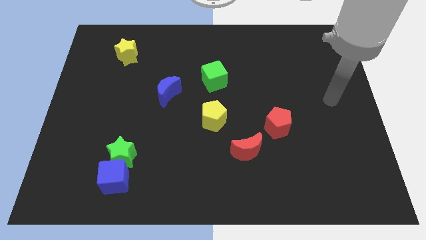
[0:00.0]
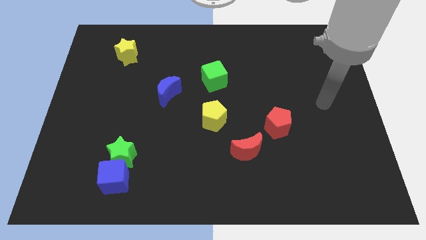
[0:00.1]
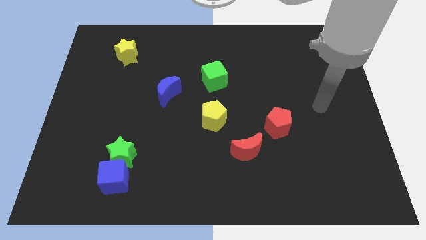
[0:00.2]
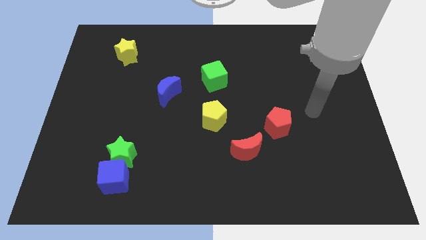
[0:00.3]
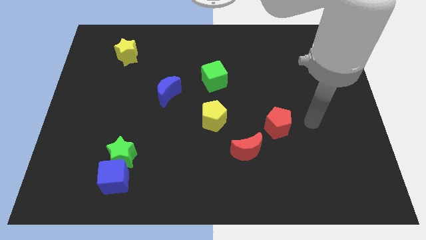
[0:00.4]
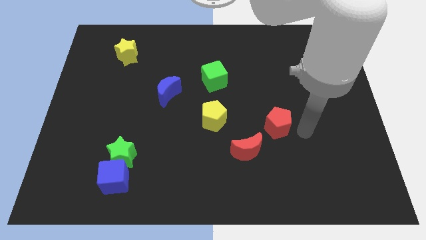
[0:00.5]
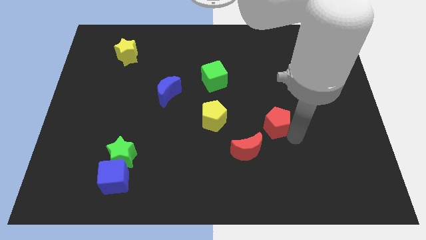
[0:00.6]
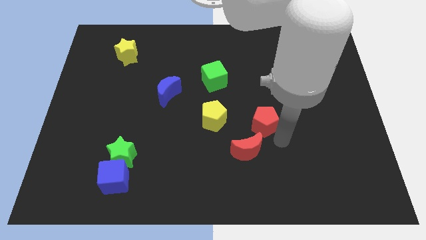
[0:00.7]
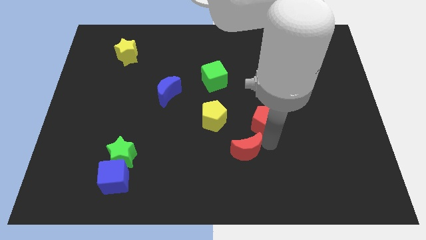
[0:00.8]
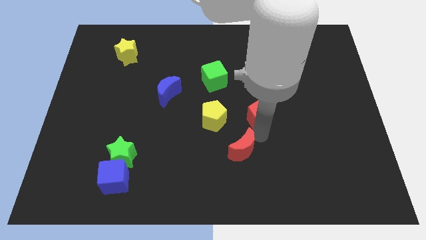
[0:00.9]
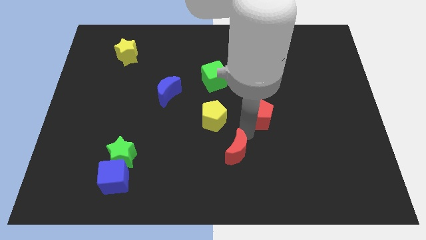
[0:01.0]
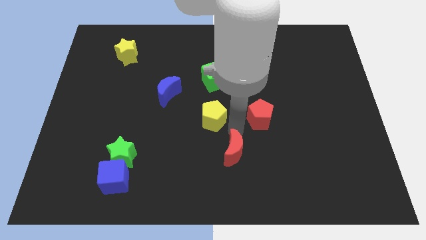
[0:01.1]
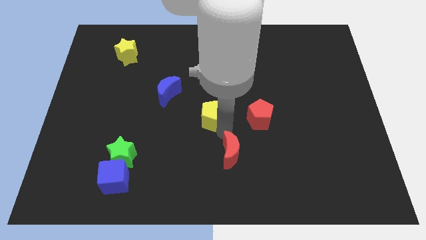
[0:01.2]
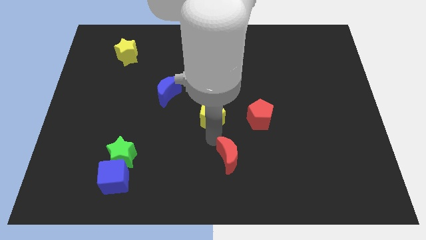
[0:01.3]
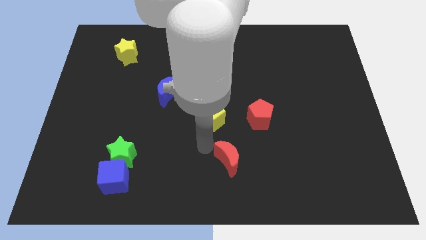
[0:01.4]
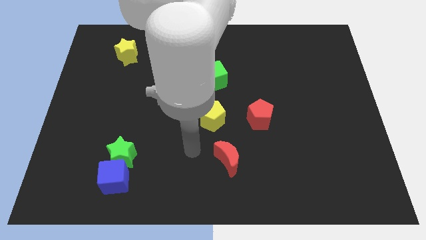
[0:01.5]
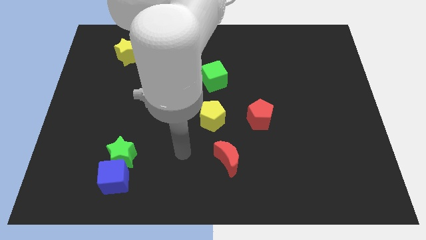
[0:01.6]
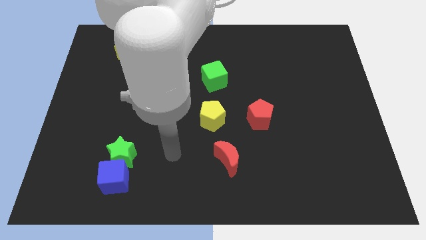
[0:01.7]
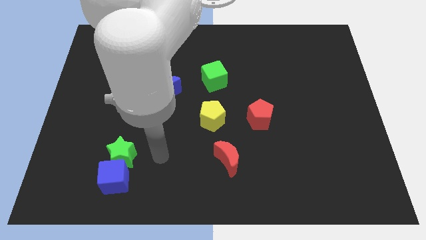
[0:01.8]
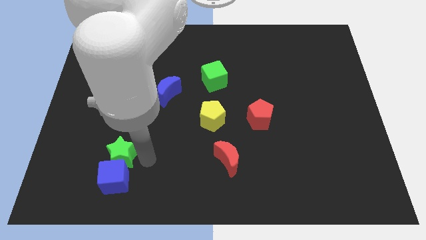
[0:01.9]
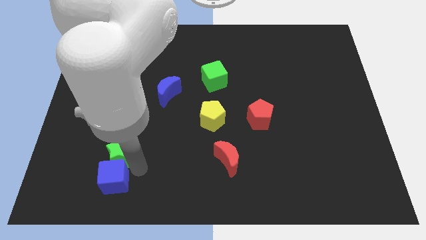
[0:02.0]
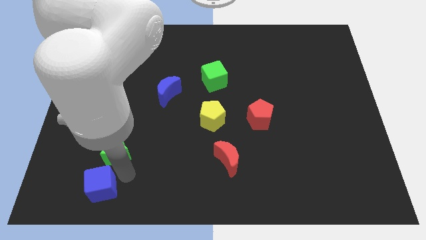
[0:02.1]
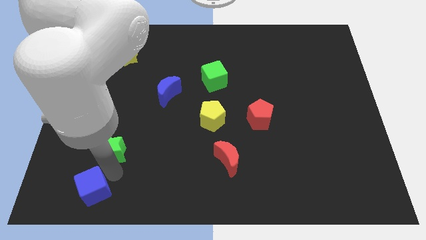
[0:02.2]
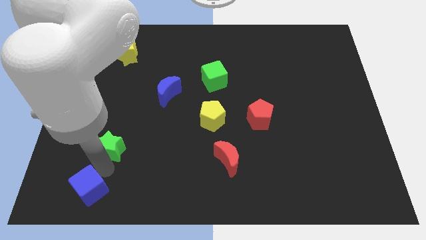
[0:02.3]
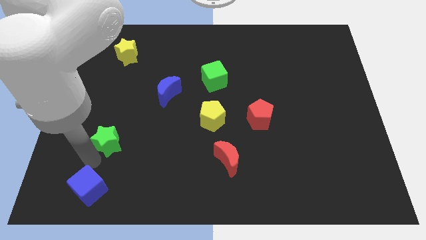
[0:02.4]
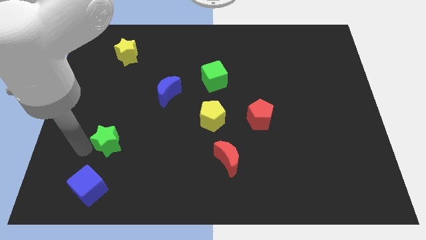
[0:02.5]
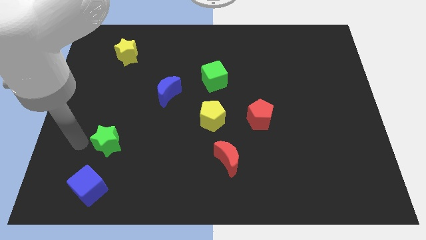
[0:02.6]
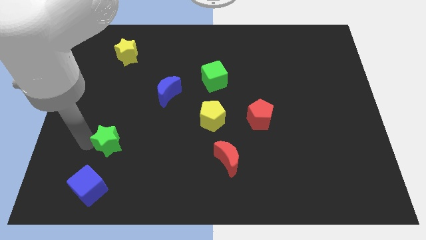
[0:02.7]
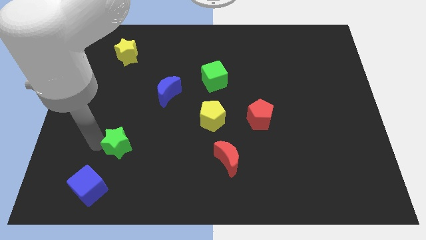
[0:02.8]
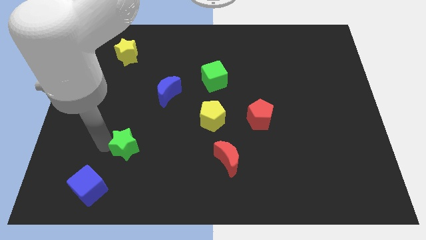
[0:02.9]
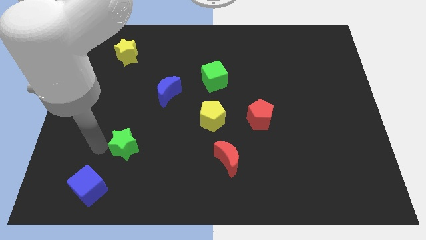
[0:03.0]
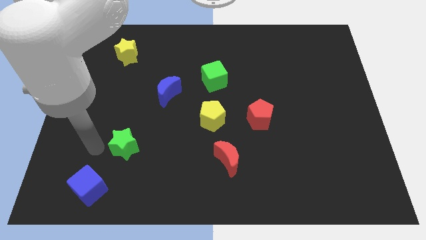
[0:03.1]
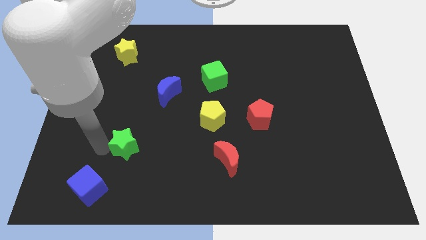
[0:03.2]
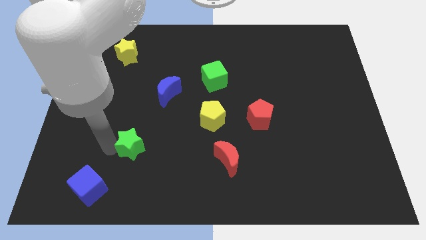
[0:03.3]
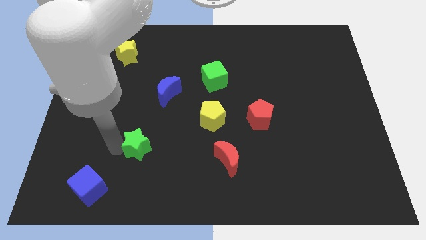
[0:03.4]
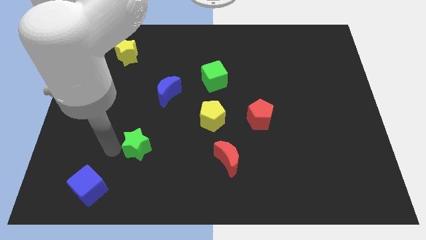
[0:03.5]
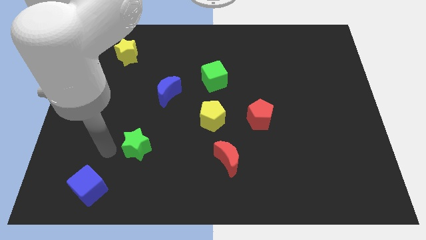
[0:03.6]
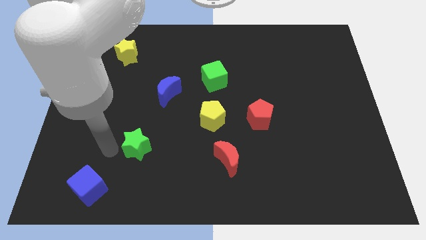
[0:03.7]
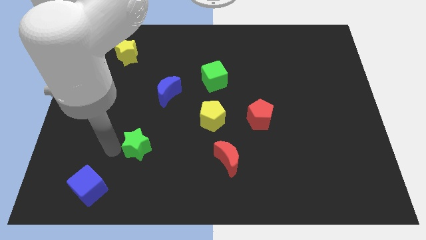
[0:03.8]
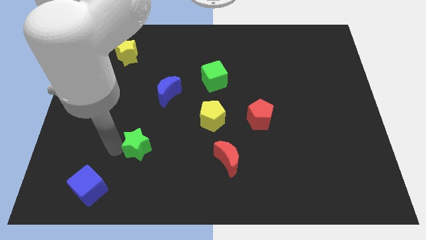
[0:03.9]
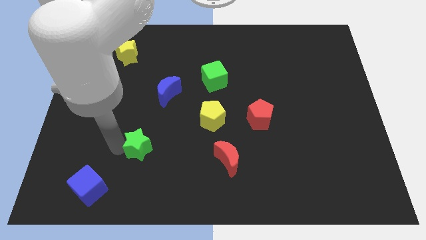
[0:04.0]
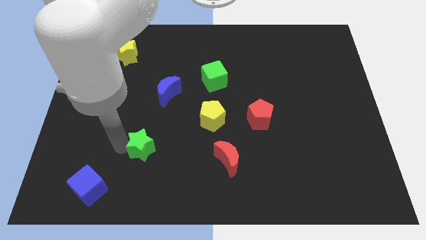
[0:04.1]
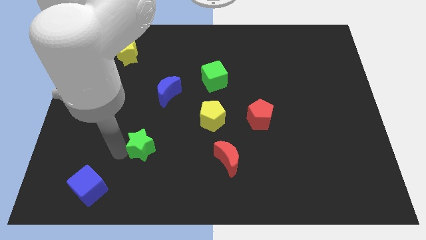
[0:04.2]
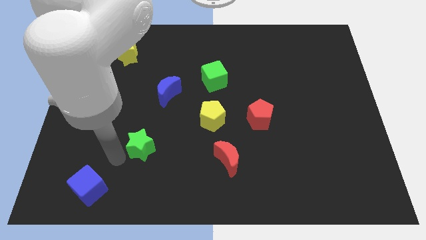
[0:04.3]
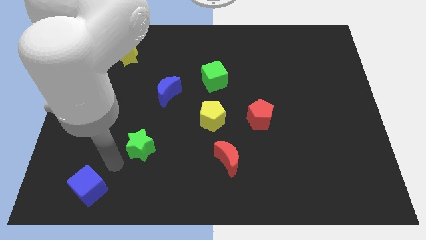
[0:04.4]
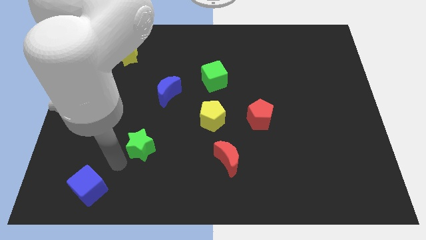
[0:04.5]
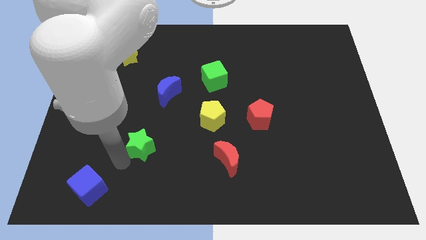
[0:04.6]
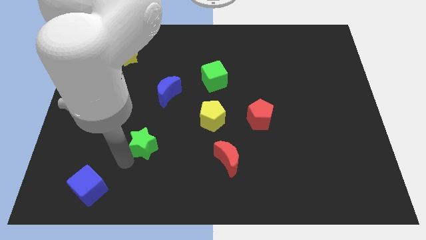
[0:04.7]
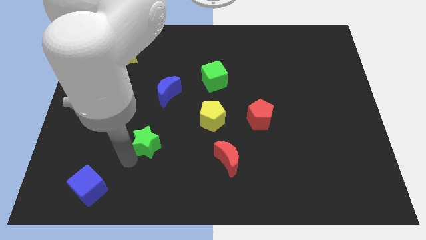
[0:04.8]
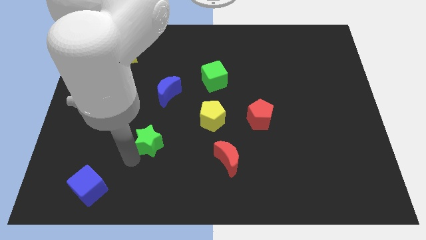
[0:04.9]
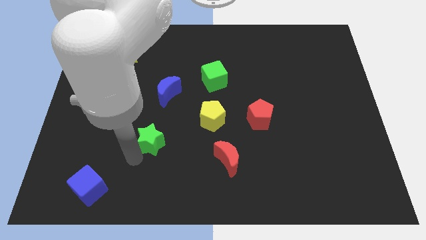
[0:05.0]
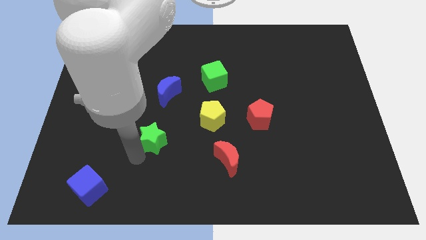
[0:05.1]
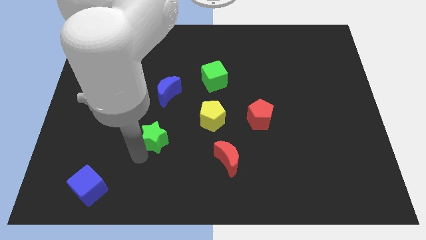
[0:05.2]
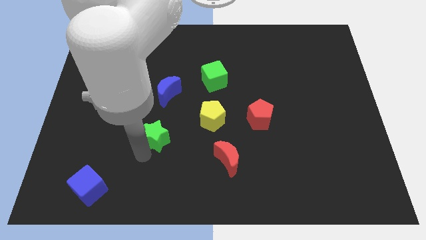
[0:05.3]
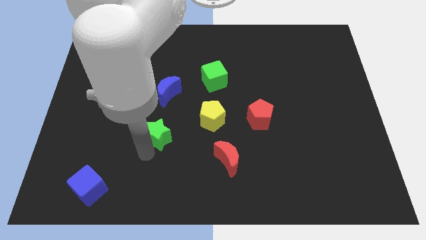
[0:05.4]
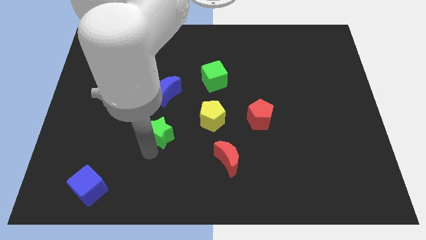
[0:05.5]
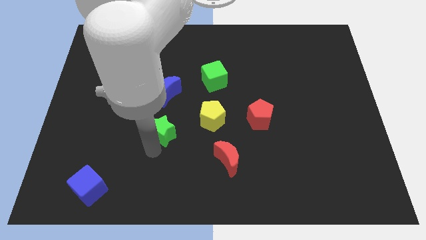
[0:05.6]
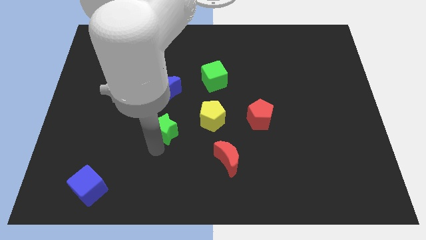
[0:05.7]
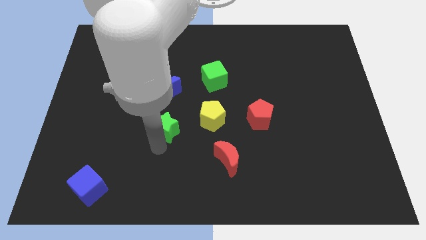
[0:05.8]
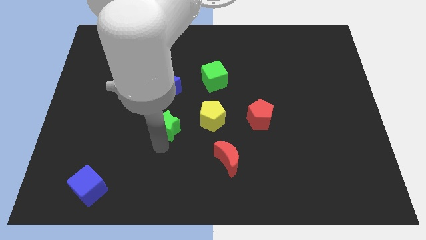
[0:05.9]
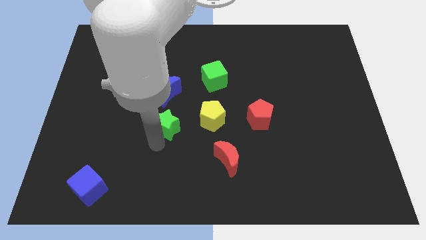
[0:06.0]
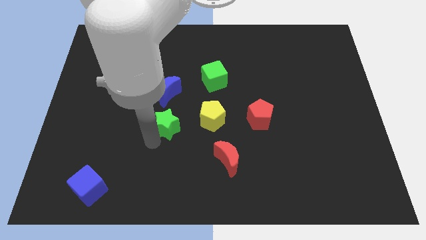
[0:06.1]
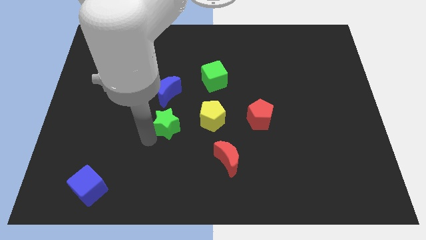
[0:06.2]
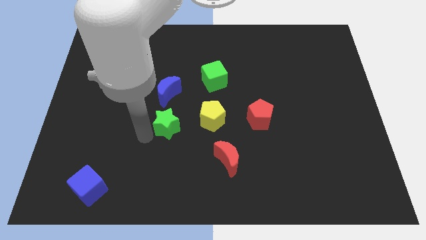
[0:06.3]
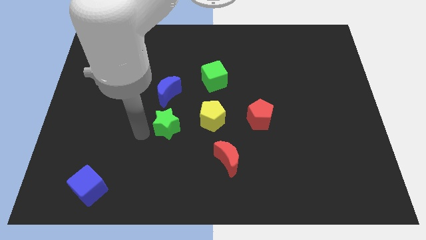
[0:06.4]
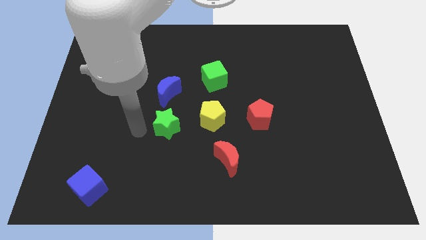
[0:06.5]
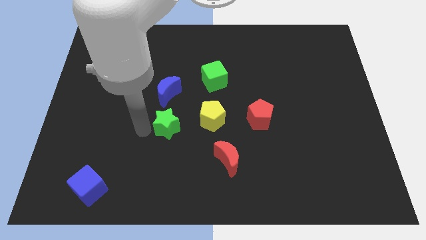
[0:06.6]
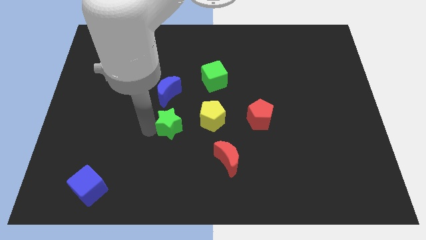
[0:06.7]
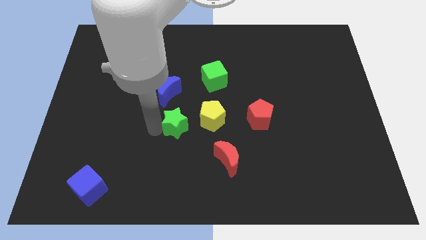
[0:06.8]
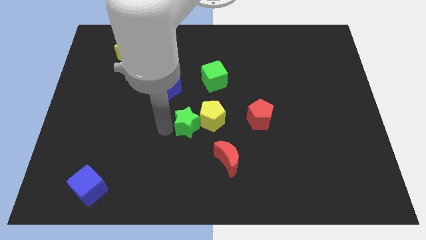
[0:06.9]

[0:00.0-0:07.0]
move the green star to the yellow pentagon
